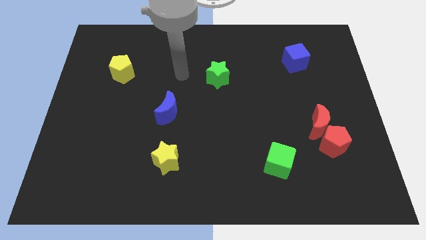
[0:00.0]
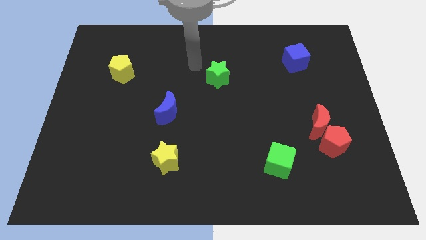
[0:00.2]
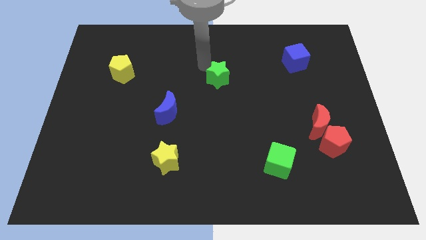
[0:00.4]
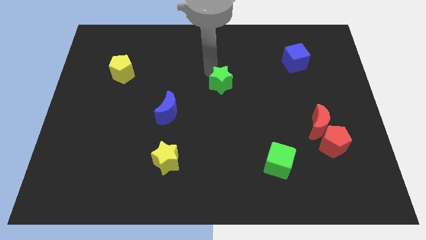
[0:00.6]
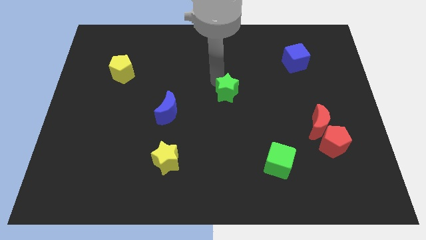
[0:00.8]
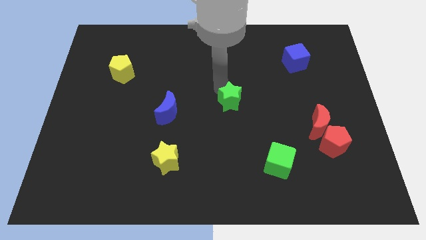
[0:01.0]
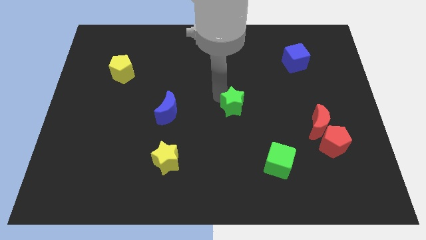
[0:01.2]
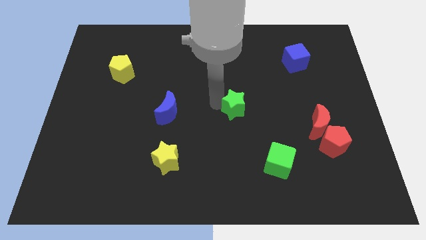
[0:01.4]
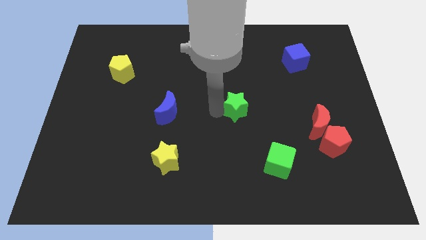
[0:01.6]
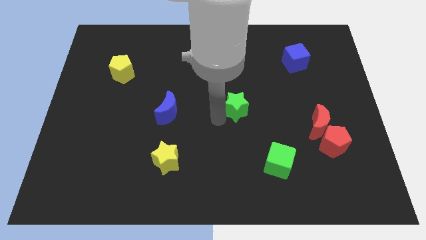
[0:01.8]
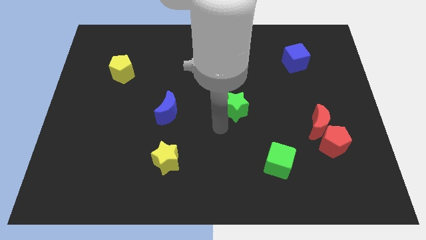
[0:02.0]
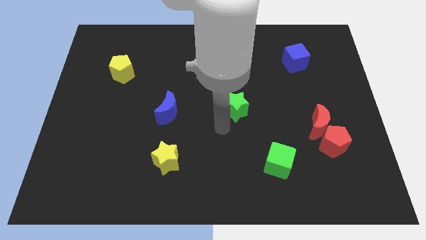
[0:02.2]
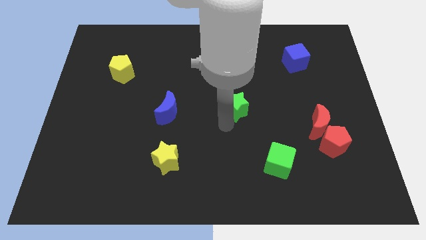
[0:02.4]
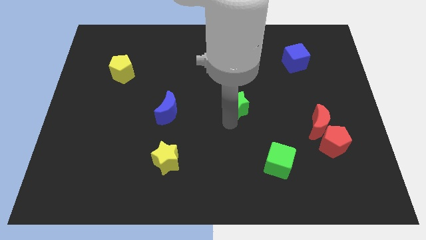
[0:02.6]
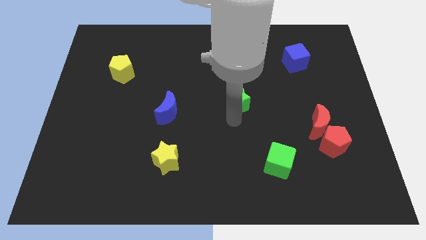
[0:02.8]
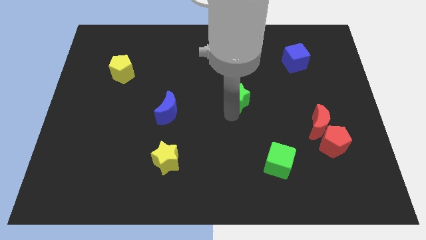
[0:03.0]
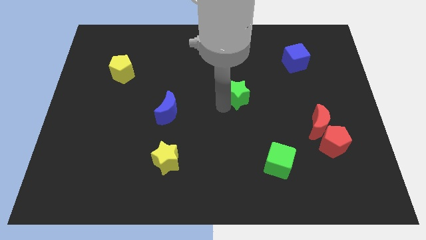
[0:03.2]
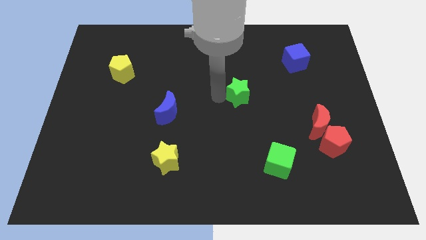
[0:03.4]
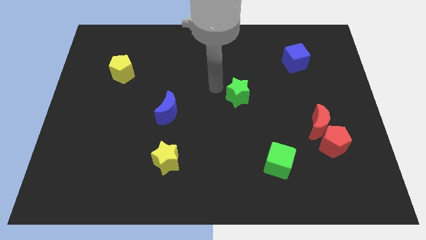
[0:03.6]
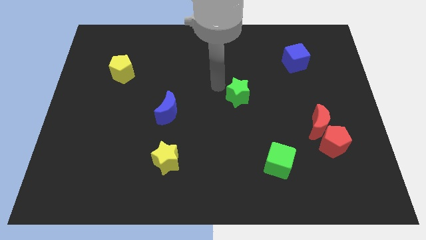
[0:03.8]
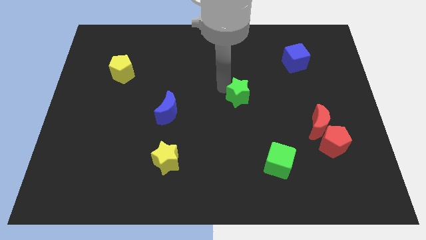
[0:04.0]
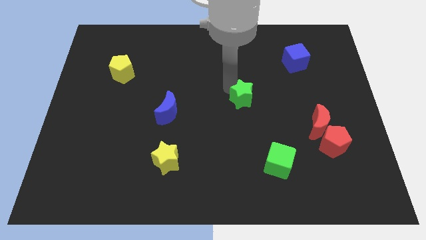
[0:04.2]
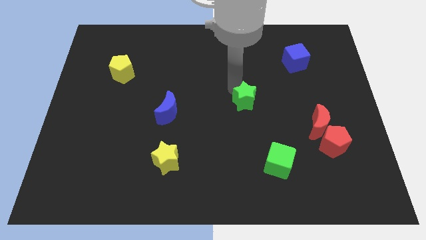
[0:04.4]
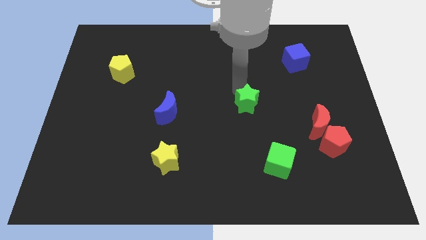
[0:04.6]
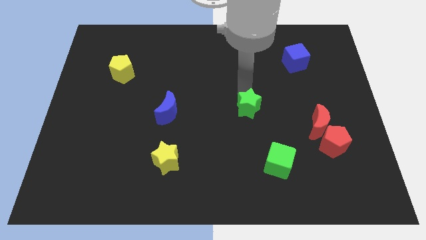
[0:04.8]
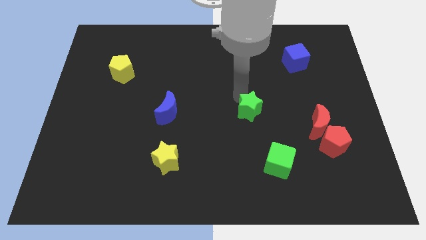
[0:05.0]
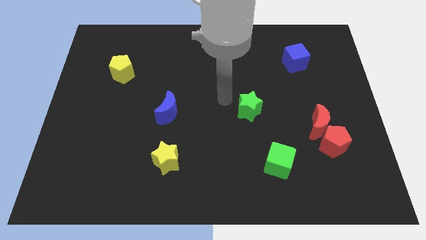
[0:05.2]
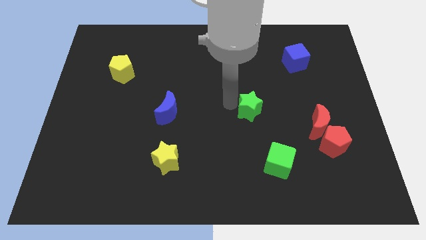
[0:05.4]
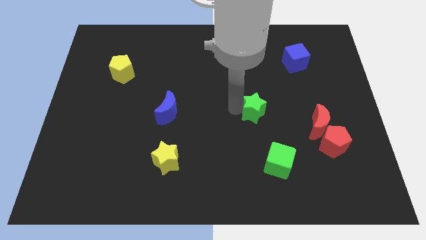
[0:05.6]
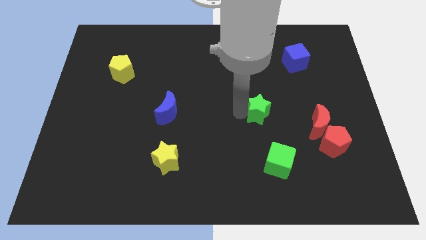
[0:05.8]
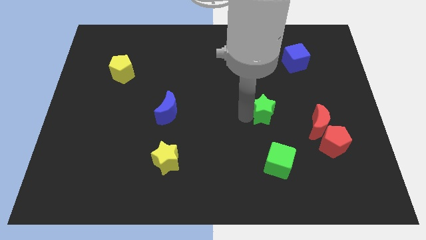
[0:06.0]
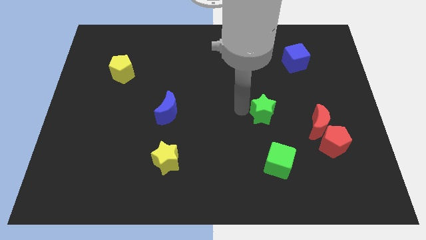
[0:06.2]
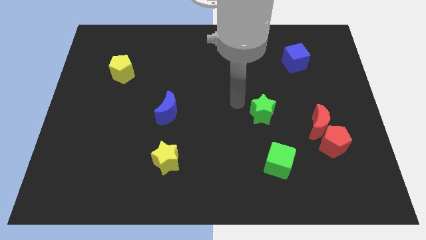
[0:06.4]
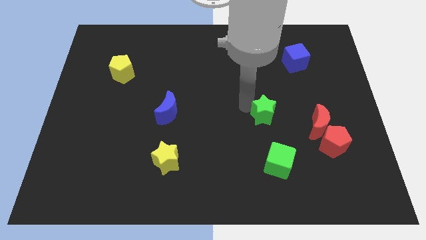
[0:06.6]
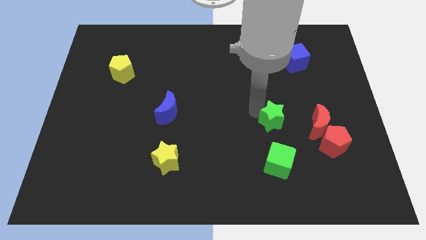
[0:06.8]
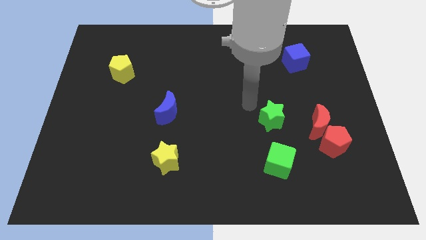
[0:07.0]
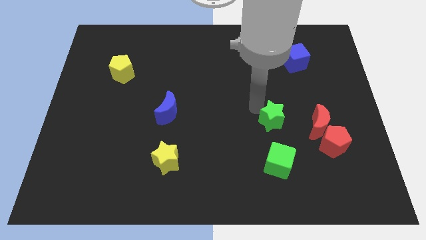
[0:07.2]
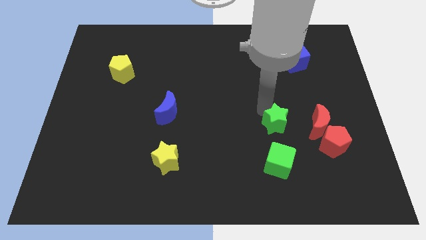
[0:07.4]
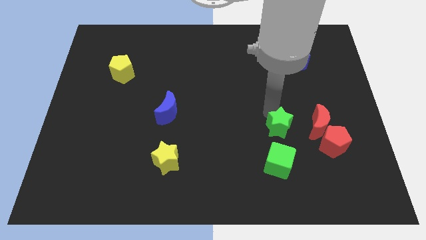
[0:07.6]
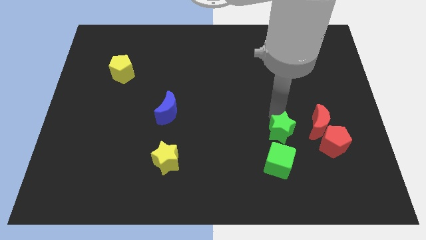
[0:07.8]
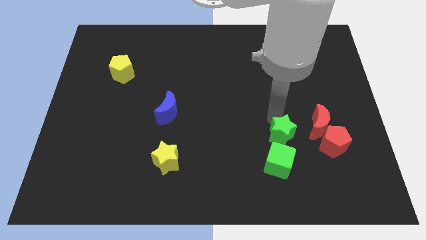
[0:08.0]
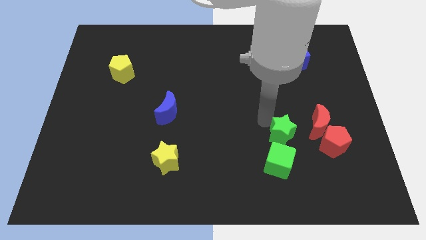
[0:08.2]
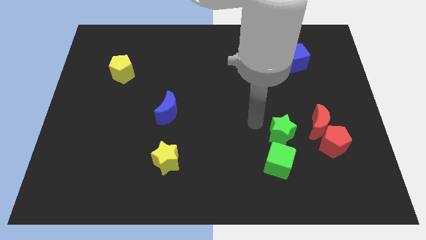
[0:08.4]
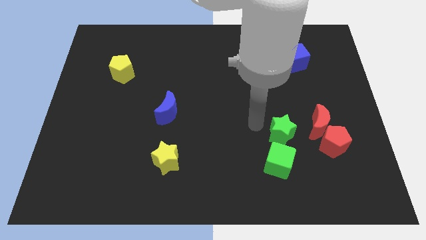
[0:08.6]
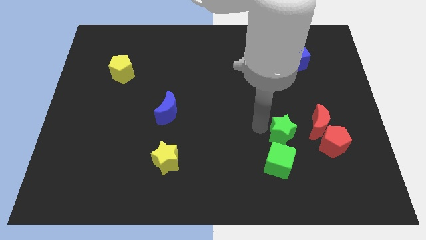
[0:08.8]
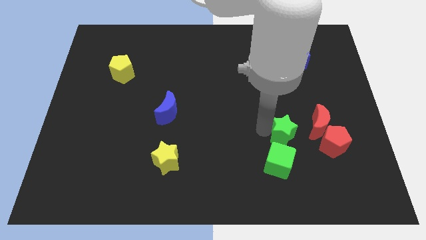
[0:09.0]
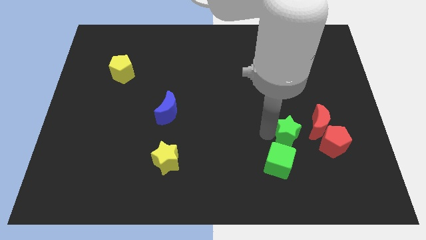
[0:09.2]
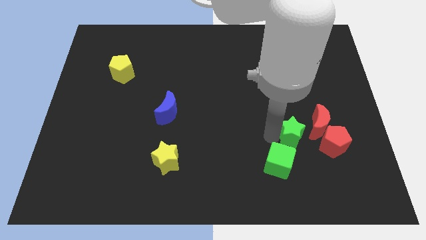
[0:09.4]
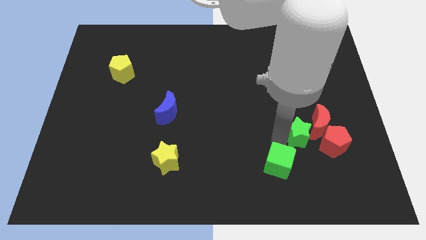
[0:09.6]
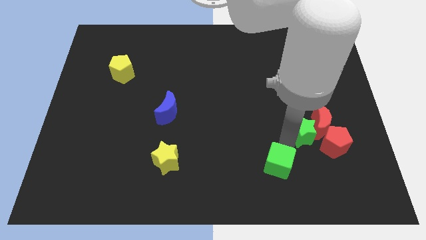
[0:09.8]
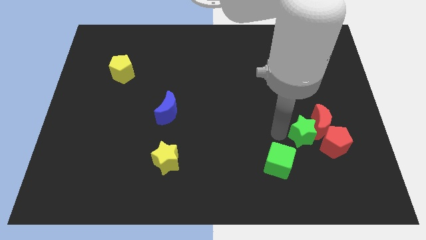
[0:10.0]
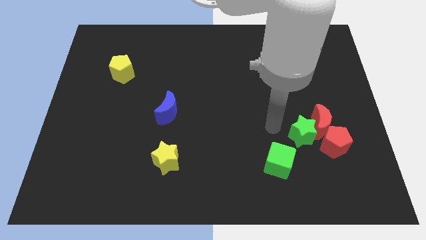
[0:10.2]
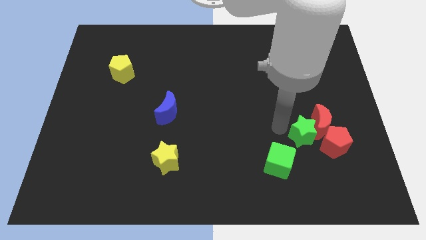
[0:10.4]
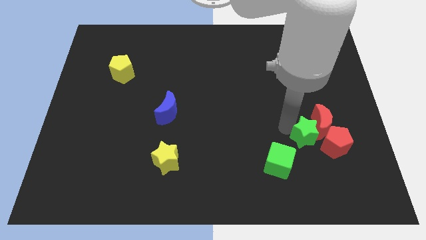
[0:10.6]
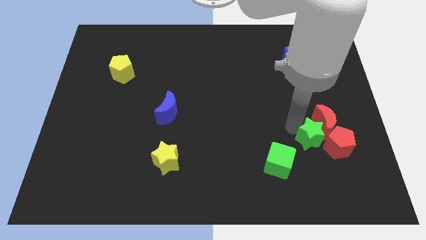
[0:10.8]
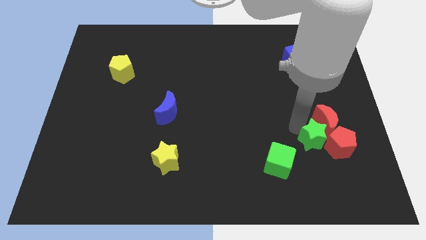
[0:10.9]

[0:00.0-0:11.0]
move the green star to the red pentagon

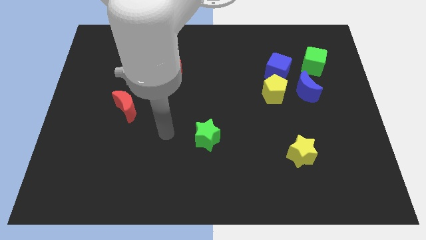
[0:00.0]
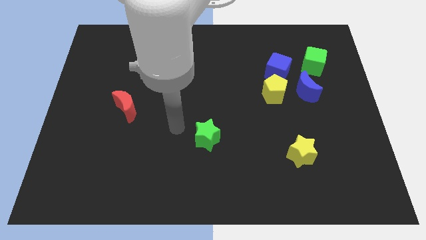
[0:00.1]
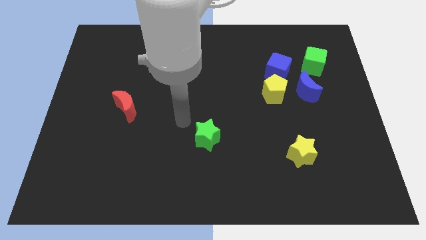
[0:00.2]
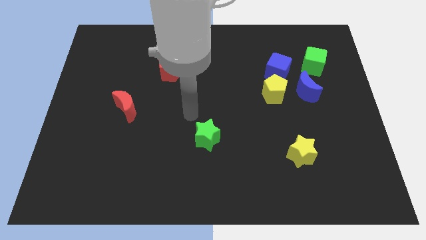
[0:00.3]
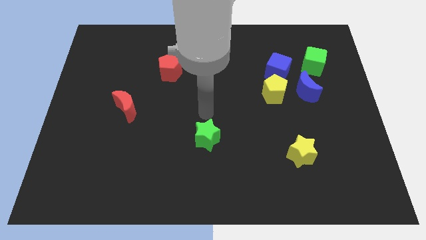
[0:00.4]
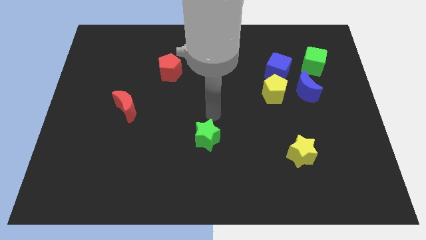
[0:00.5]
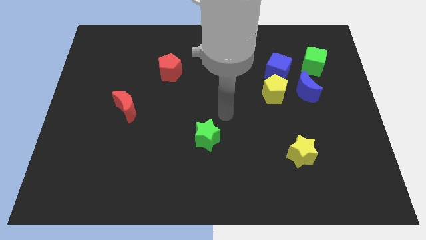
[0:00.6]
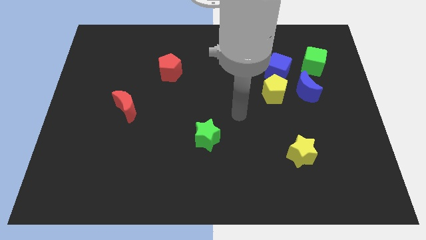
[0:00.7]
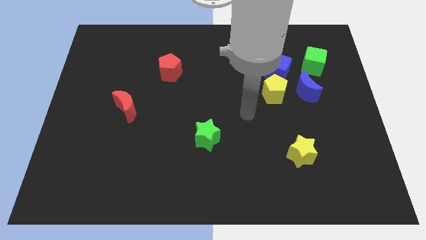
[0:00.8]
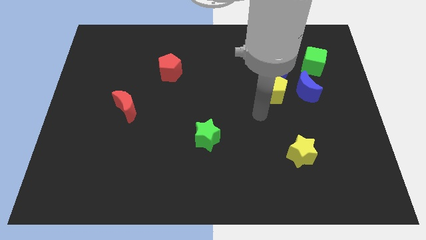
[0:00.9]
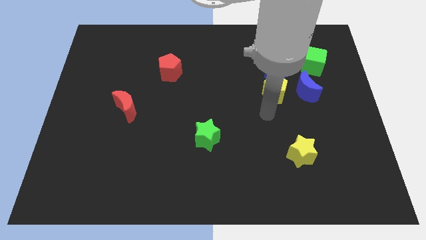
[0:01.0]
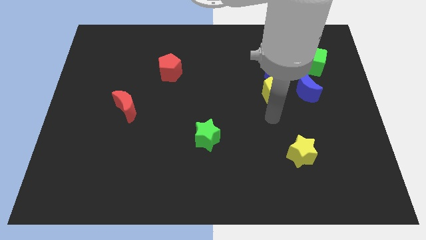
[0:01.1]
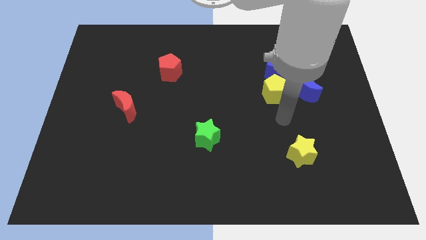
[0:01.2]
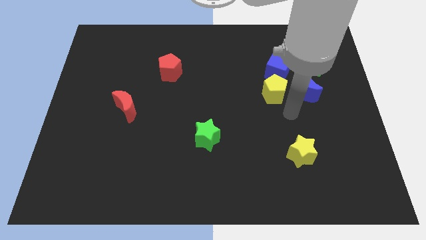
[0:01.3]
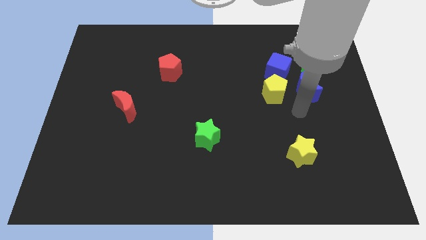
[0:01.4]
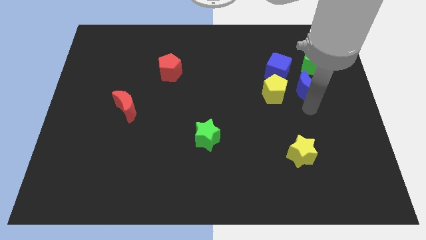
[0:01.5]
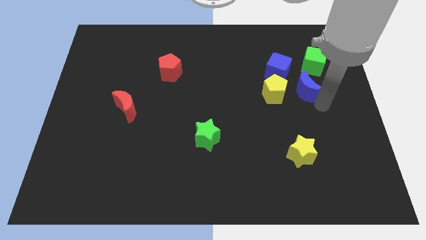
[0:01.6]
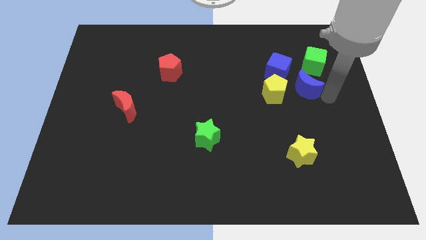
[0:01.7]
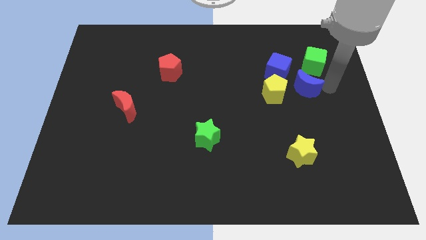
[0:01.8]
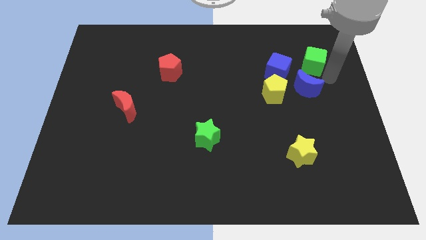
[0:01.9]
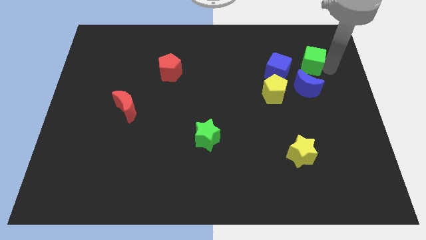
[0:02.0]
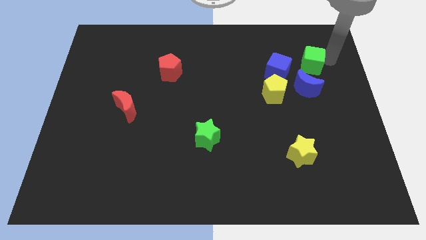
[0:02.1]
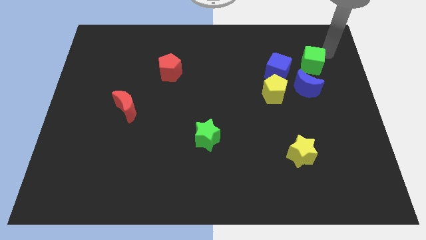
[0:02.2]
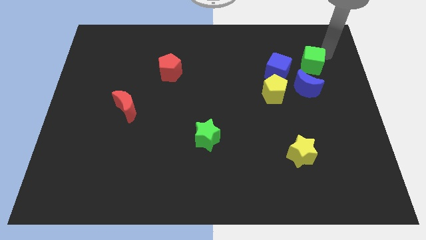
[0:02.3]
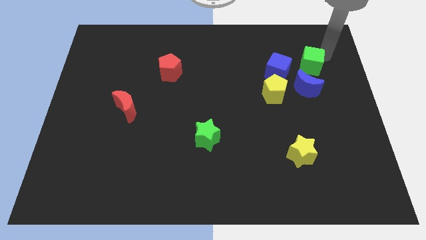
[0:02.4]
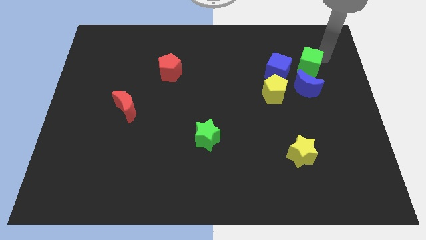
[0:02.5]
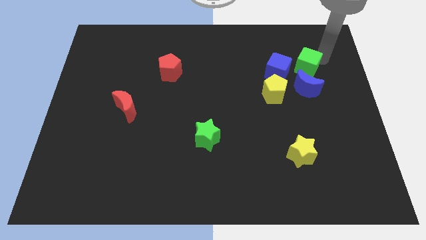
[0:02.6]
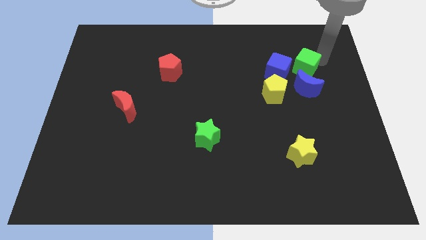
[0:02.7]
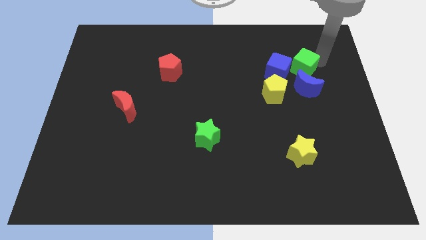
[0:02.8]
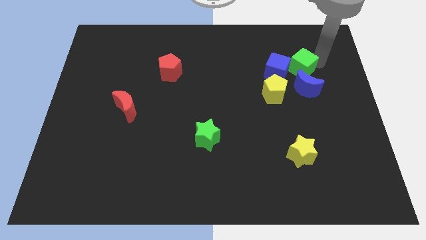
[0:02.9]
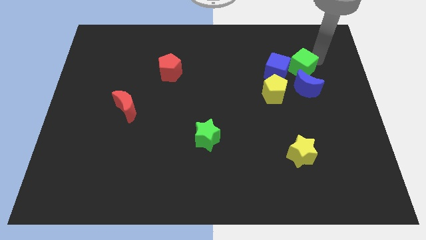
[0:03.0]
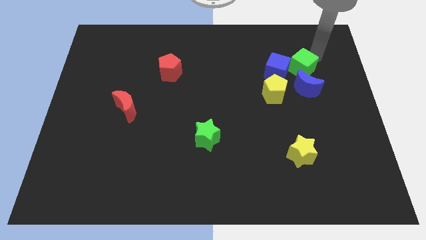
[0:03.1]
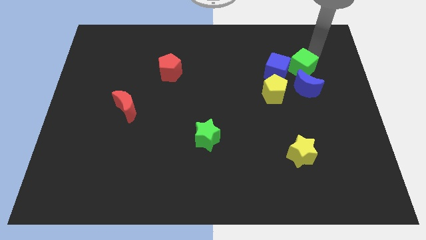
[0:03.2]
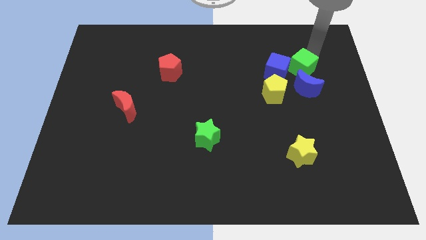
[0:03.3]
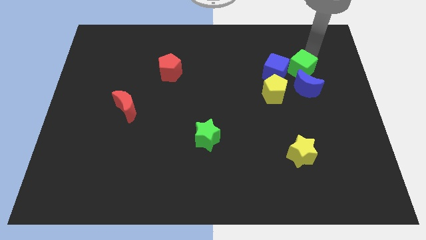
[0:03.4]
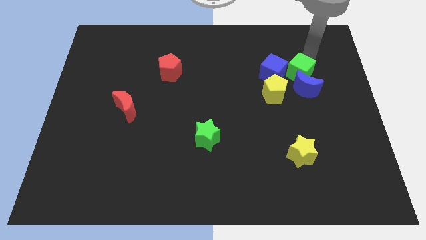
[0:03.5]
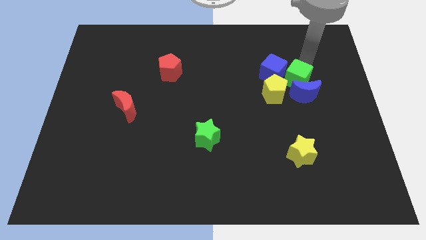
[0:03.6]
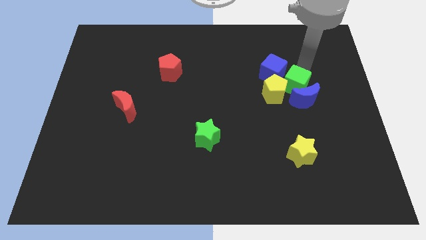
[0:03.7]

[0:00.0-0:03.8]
put the green cube towards the yellow pentagon
